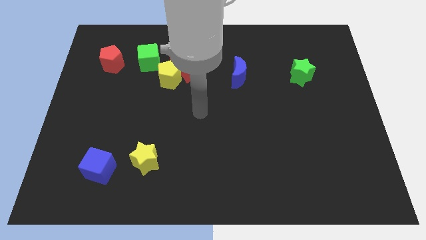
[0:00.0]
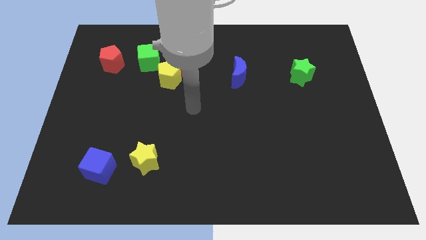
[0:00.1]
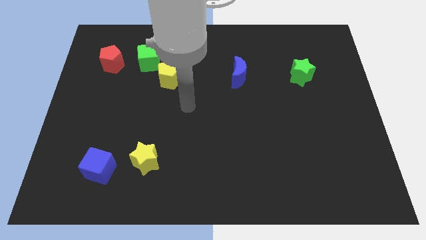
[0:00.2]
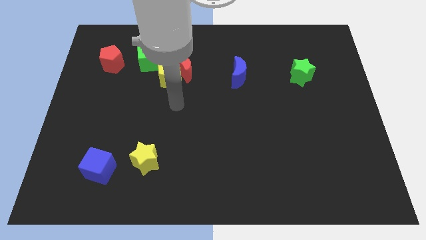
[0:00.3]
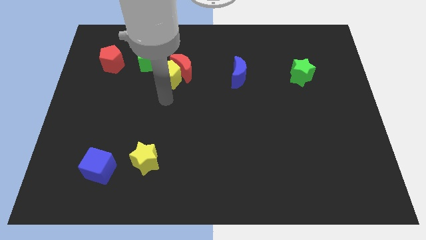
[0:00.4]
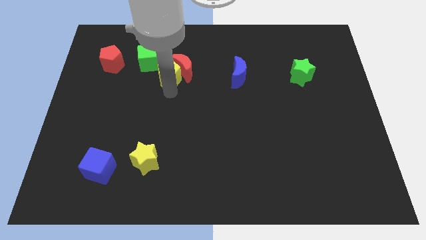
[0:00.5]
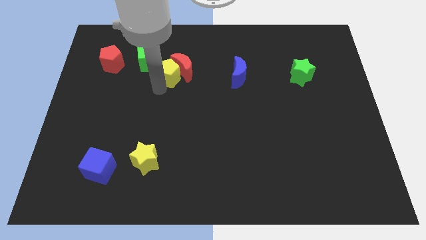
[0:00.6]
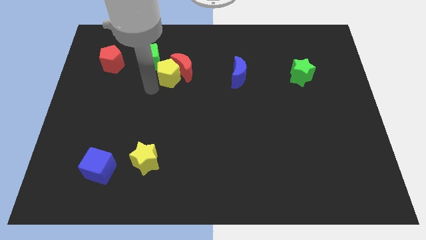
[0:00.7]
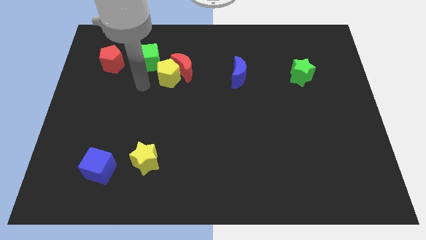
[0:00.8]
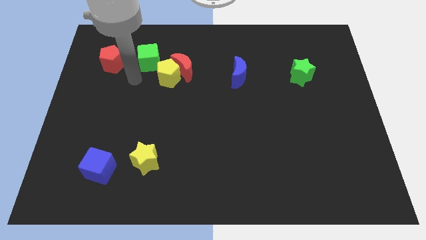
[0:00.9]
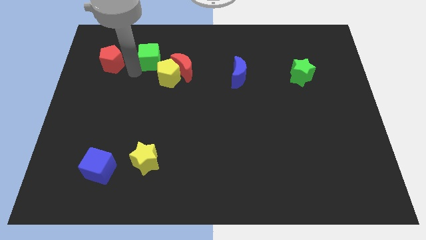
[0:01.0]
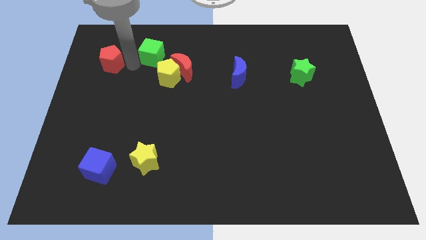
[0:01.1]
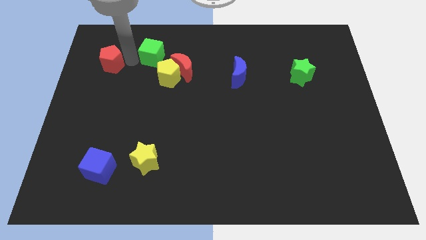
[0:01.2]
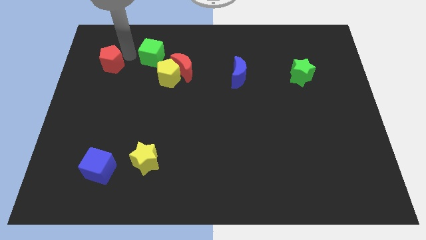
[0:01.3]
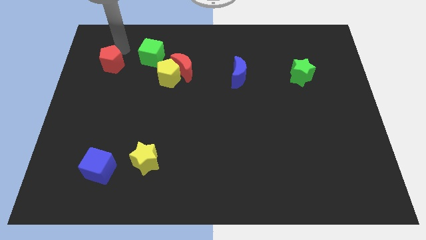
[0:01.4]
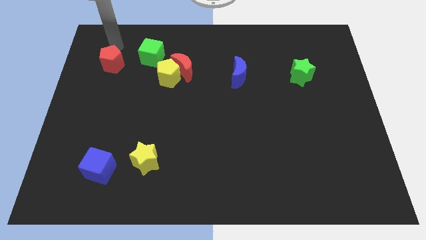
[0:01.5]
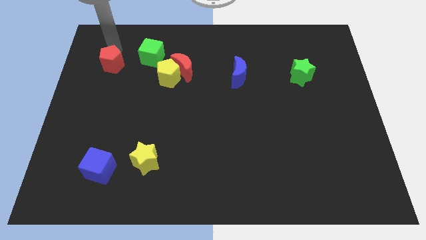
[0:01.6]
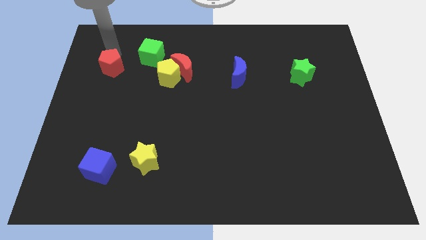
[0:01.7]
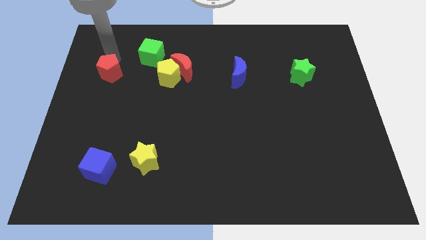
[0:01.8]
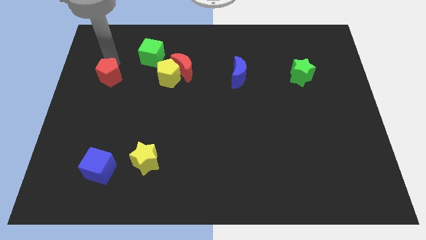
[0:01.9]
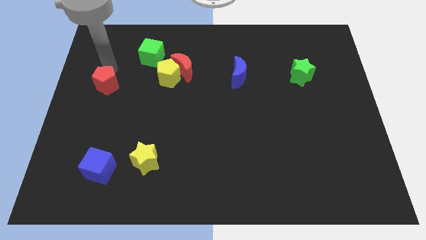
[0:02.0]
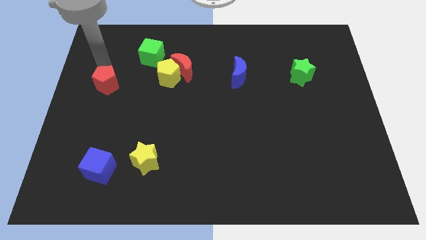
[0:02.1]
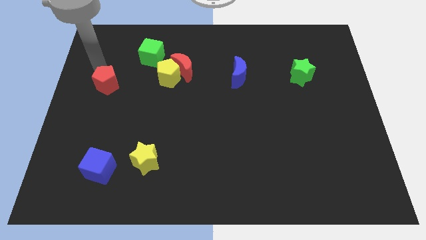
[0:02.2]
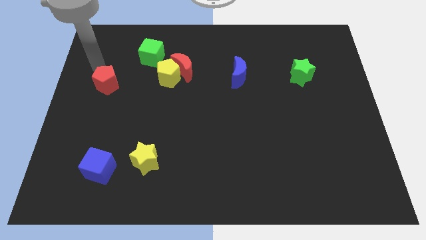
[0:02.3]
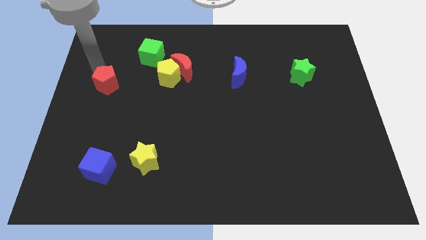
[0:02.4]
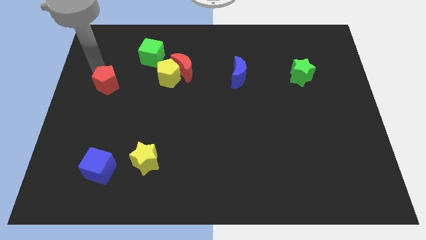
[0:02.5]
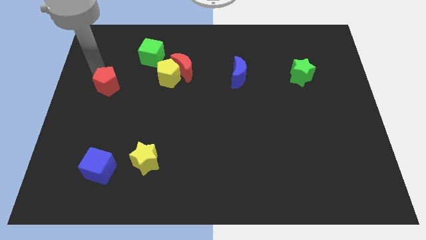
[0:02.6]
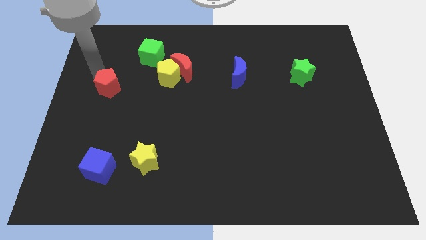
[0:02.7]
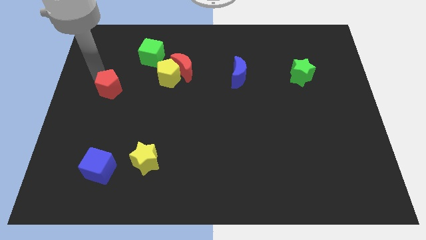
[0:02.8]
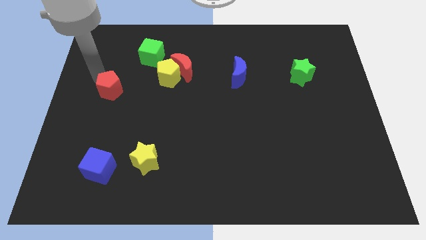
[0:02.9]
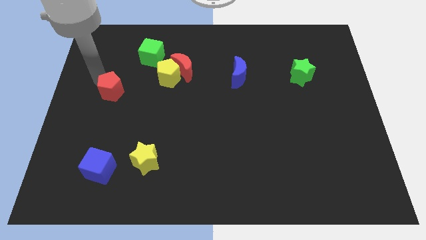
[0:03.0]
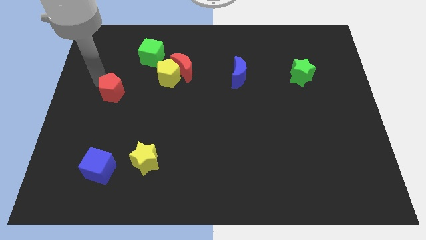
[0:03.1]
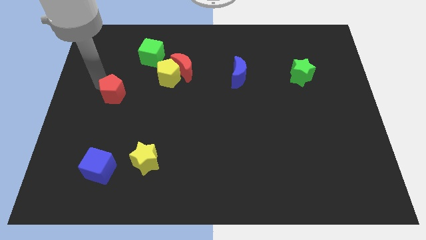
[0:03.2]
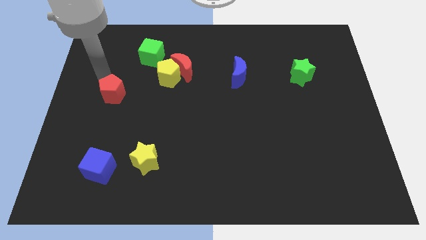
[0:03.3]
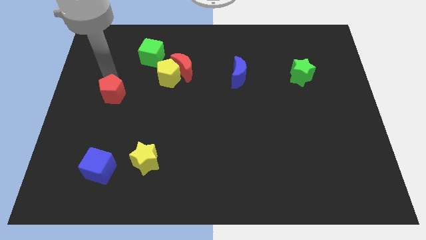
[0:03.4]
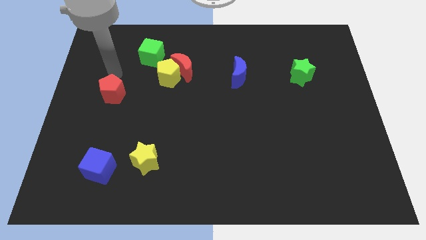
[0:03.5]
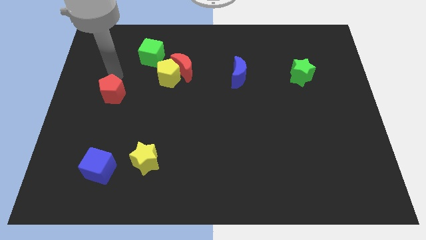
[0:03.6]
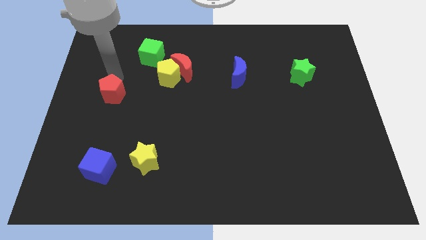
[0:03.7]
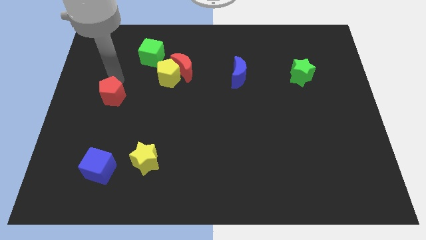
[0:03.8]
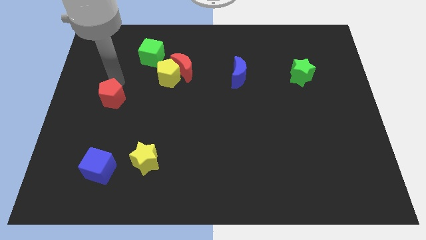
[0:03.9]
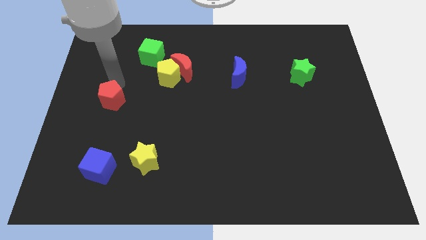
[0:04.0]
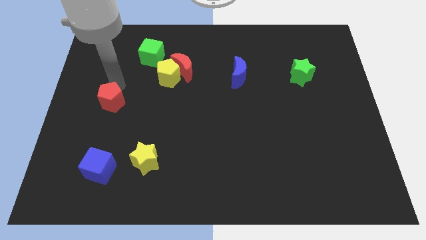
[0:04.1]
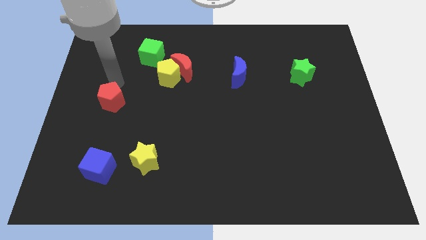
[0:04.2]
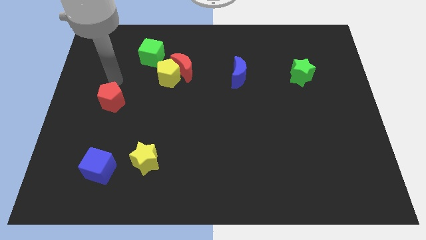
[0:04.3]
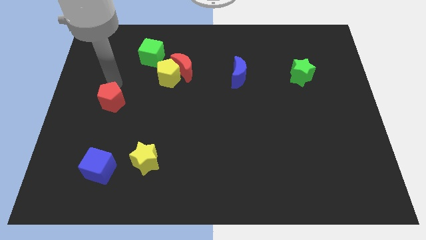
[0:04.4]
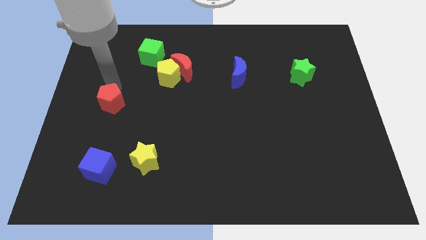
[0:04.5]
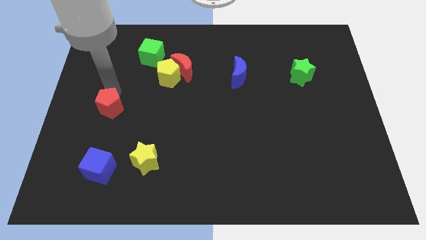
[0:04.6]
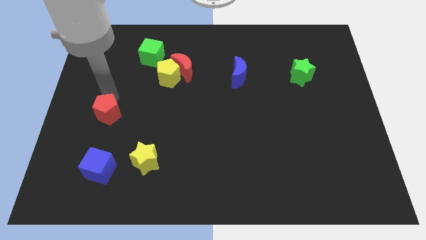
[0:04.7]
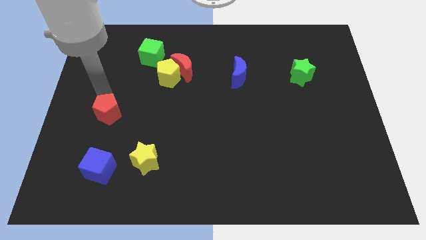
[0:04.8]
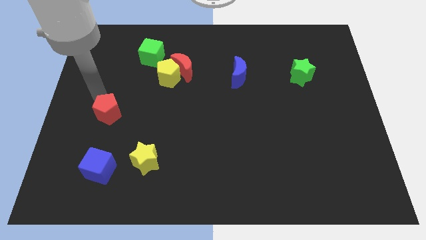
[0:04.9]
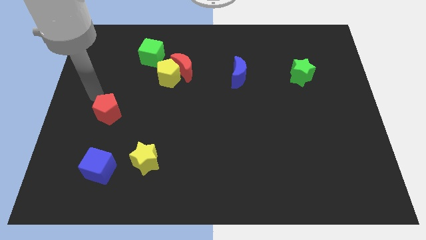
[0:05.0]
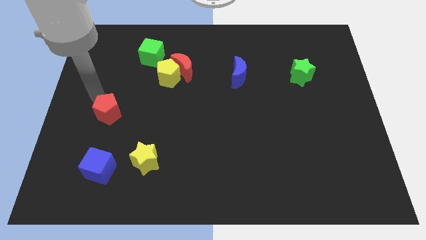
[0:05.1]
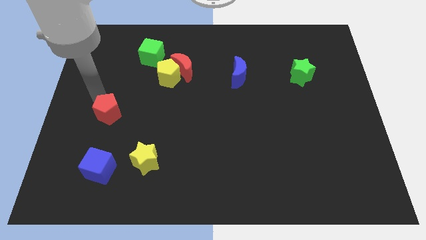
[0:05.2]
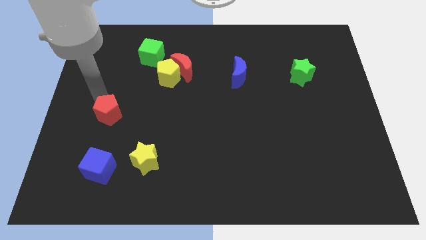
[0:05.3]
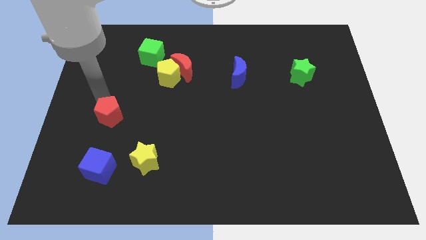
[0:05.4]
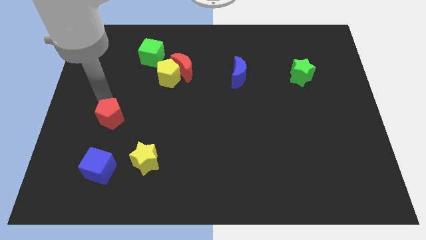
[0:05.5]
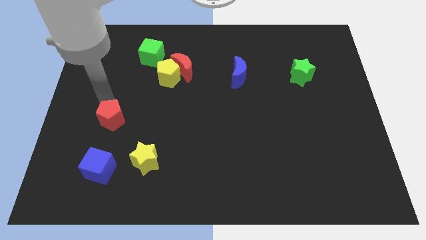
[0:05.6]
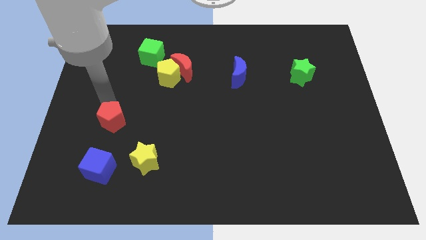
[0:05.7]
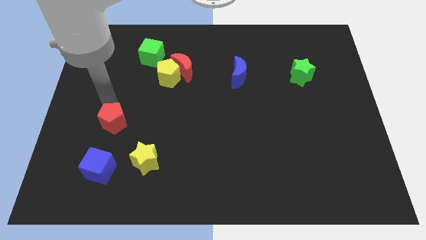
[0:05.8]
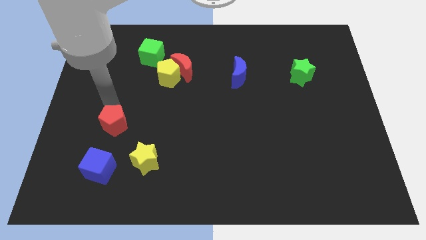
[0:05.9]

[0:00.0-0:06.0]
move the red pentagon to the top left of the yellow star

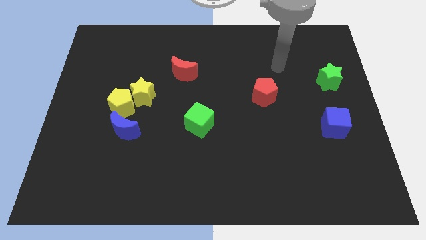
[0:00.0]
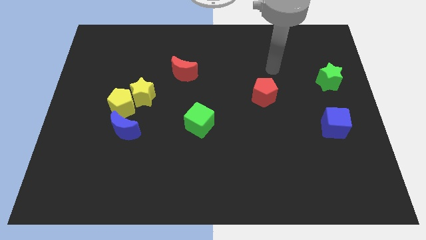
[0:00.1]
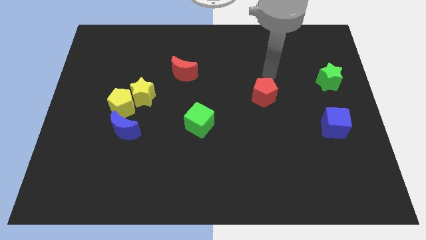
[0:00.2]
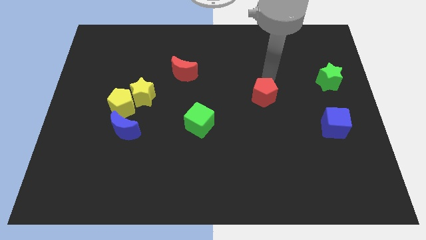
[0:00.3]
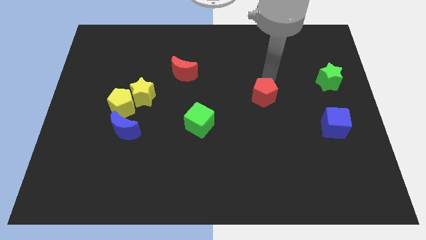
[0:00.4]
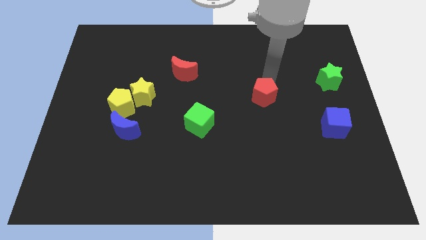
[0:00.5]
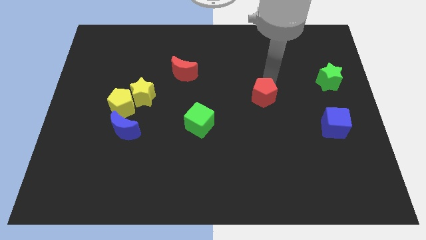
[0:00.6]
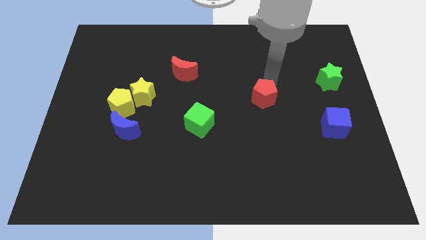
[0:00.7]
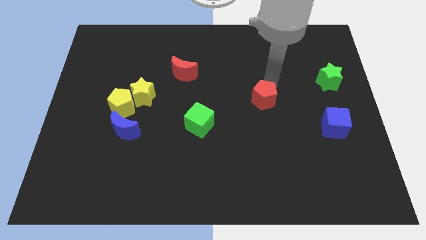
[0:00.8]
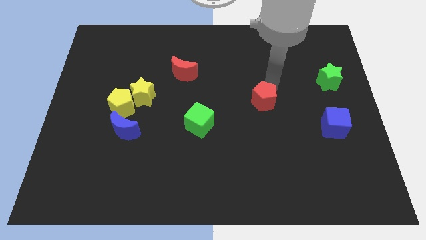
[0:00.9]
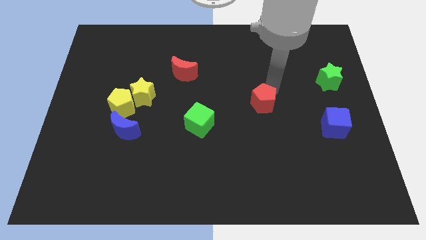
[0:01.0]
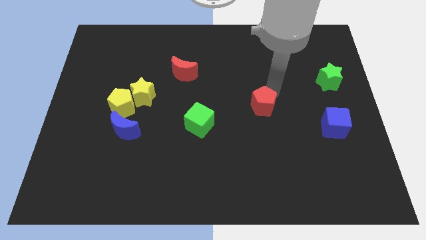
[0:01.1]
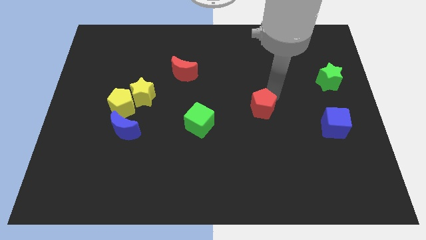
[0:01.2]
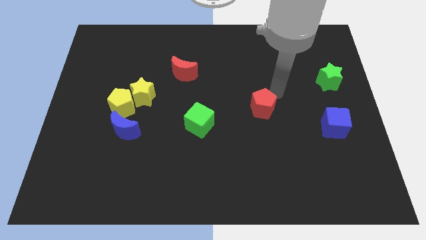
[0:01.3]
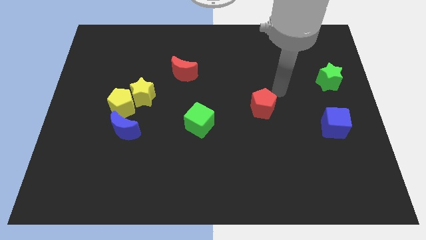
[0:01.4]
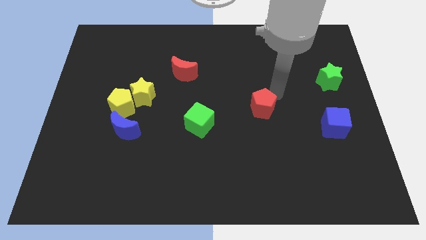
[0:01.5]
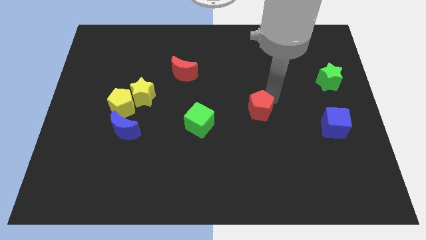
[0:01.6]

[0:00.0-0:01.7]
move the red pentagon right of the green cube

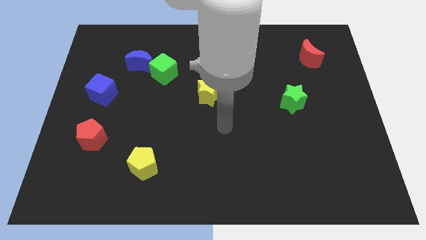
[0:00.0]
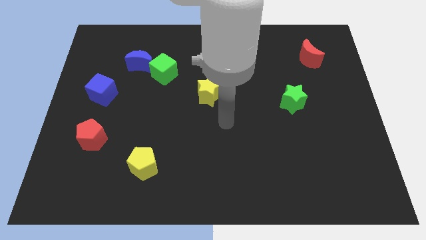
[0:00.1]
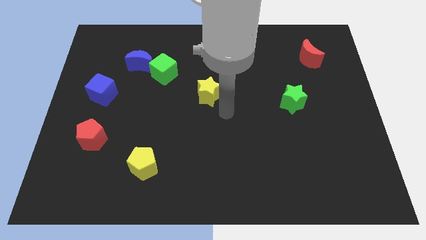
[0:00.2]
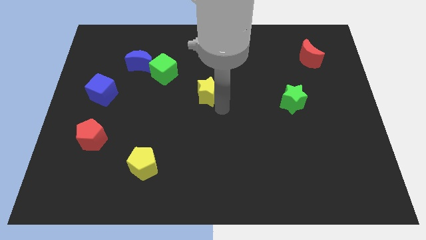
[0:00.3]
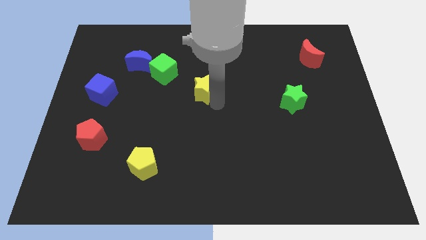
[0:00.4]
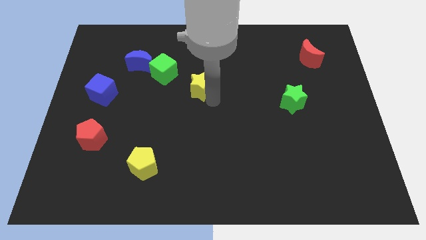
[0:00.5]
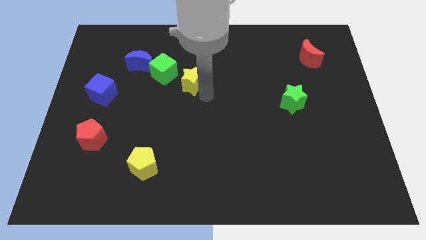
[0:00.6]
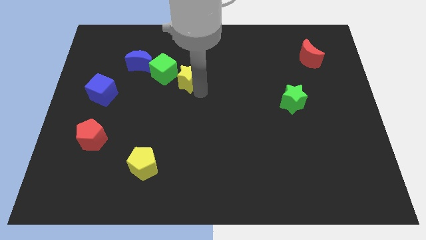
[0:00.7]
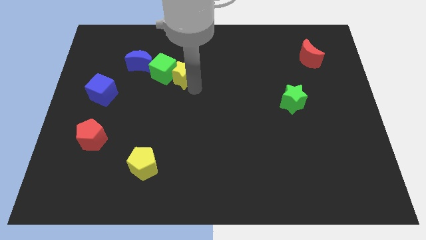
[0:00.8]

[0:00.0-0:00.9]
move the yellow star just right of the blue moon
